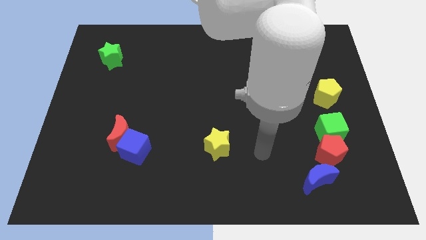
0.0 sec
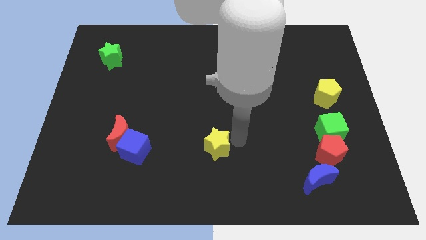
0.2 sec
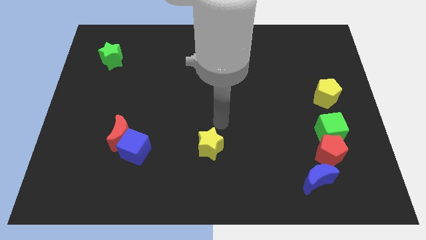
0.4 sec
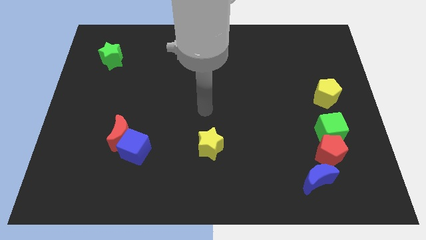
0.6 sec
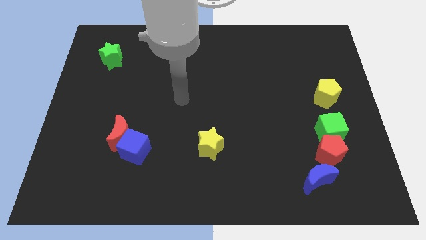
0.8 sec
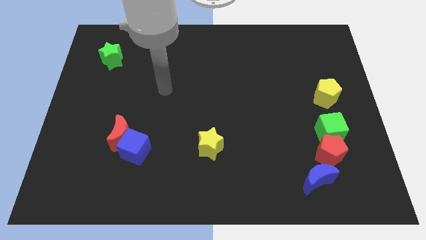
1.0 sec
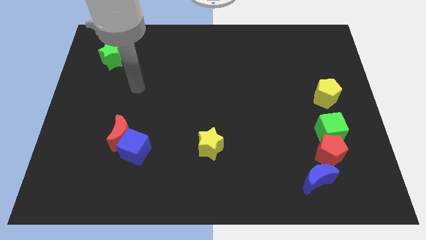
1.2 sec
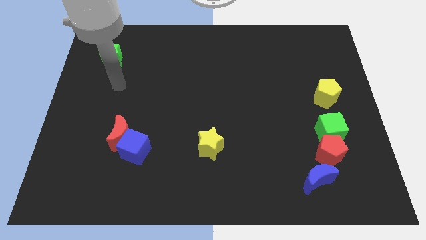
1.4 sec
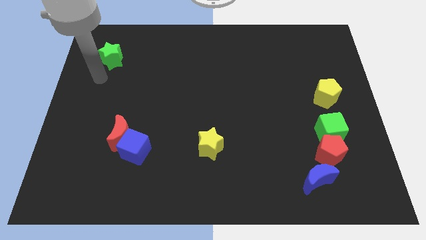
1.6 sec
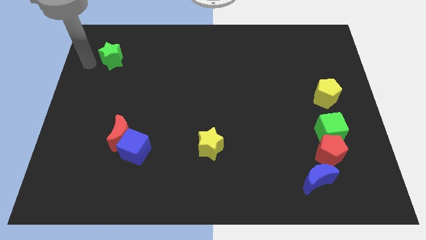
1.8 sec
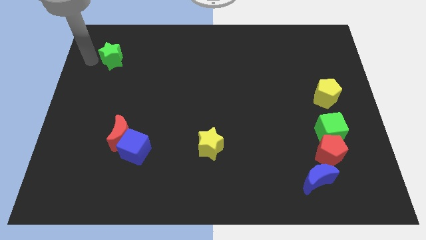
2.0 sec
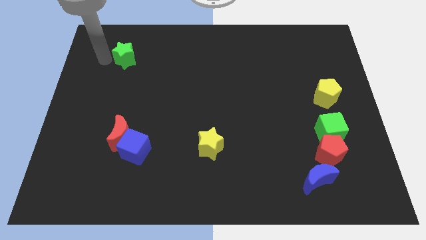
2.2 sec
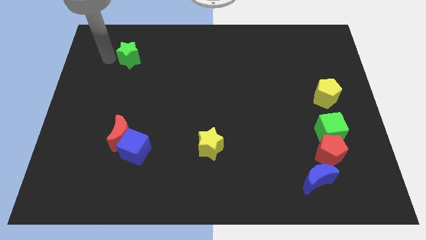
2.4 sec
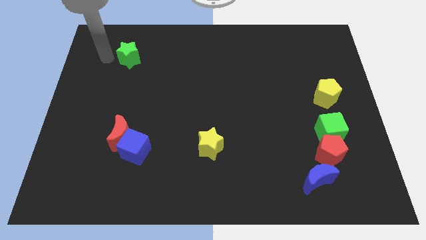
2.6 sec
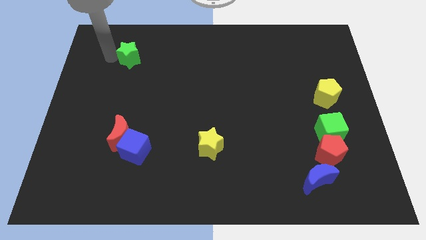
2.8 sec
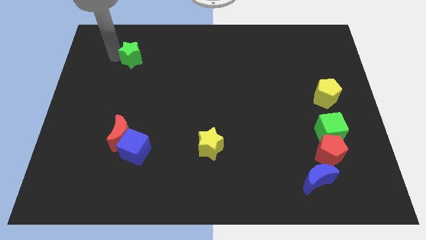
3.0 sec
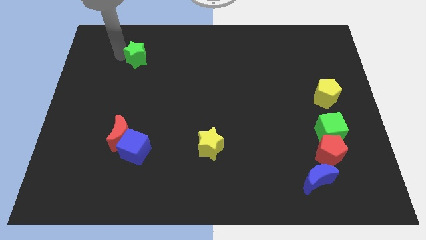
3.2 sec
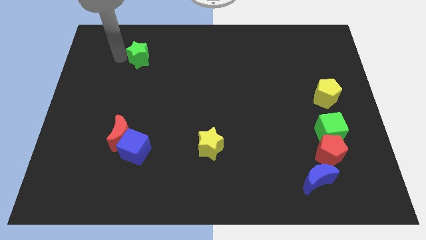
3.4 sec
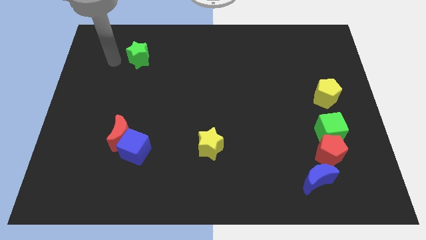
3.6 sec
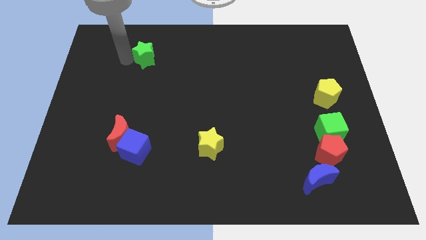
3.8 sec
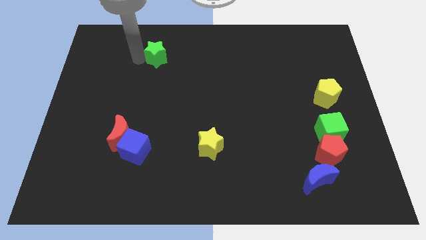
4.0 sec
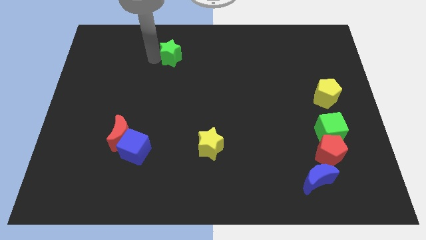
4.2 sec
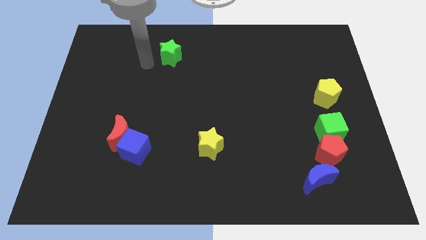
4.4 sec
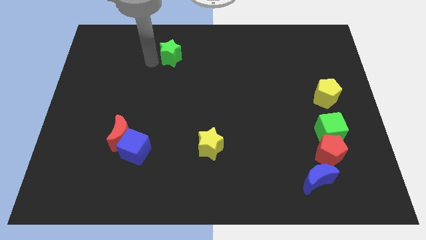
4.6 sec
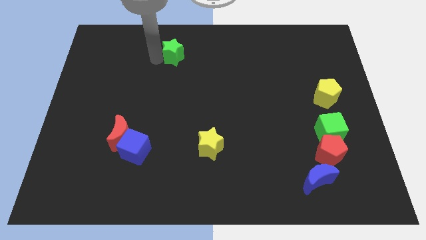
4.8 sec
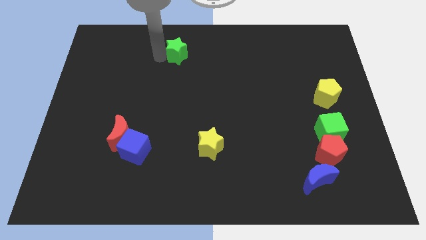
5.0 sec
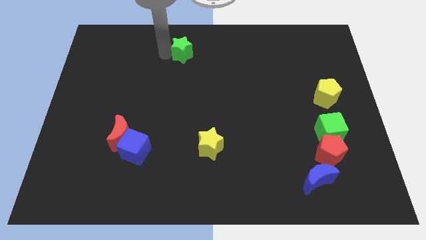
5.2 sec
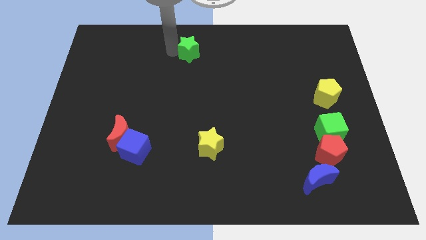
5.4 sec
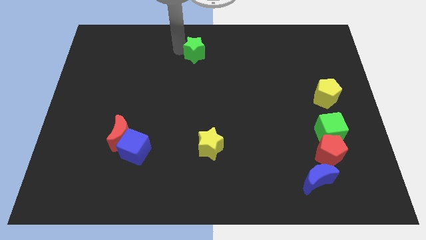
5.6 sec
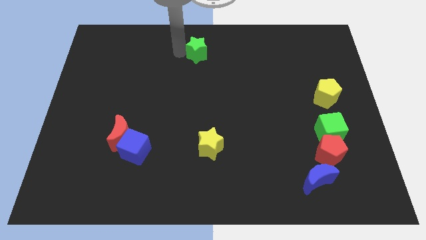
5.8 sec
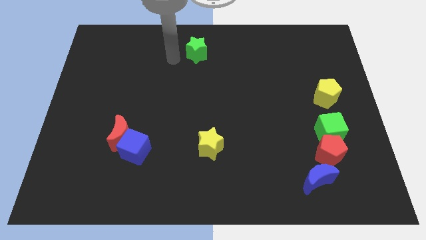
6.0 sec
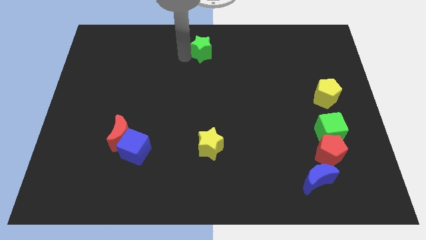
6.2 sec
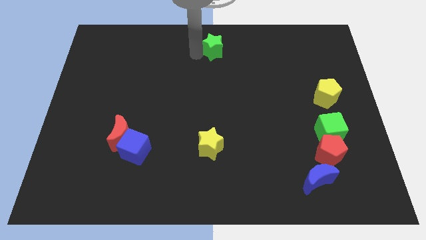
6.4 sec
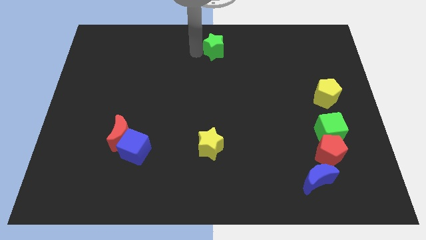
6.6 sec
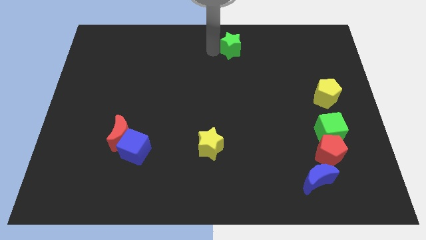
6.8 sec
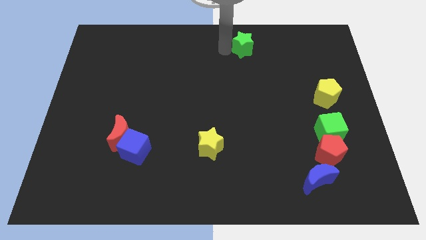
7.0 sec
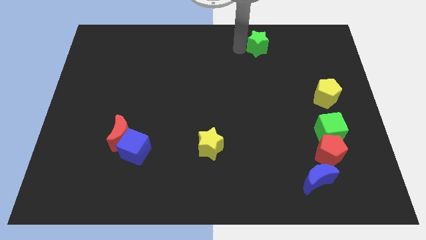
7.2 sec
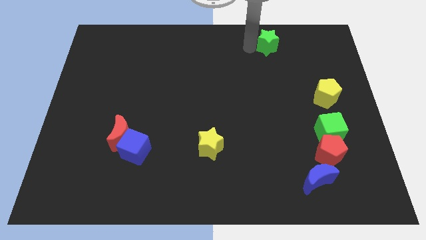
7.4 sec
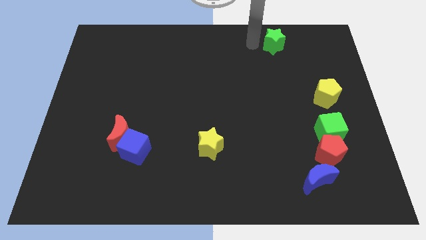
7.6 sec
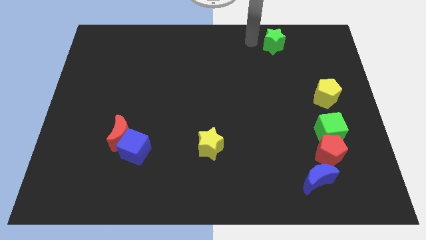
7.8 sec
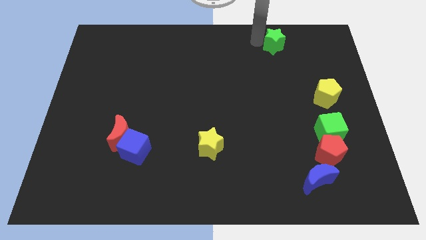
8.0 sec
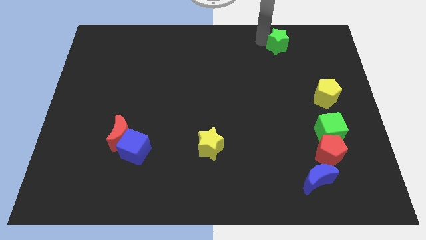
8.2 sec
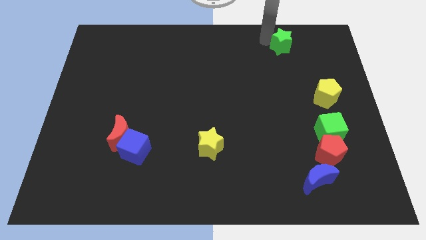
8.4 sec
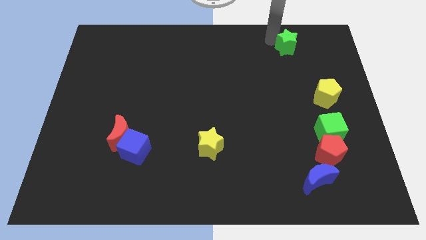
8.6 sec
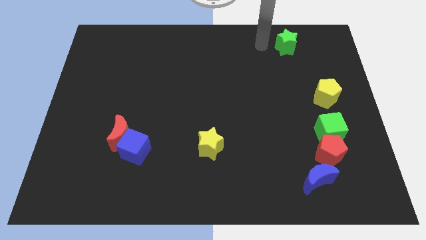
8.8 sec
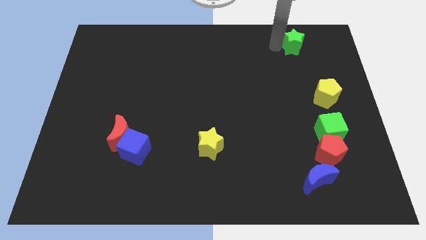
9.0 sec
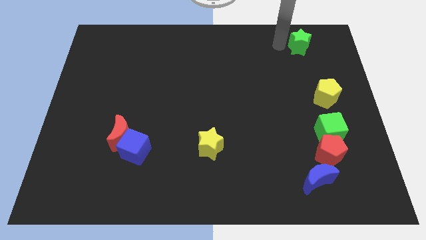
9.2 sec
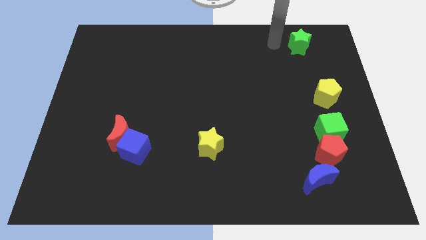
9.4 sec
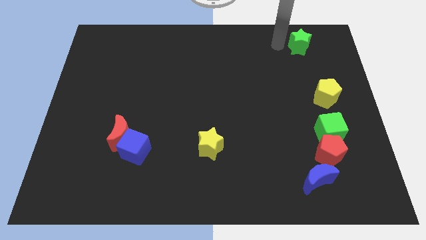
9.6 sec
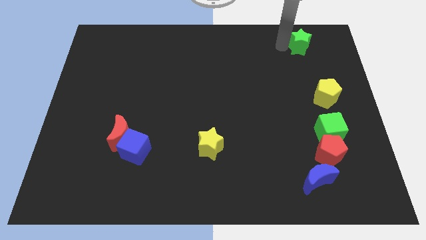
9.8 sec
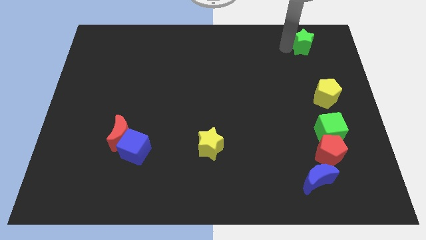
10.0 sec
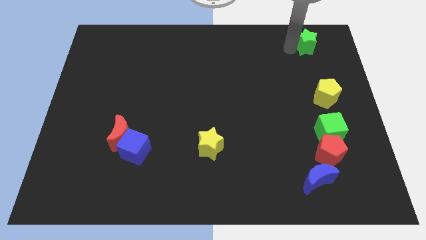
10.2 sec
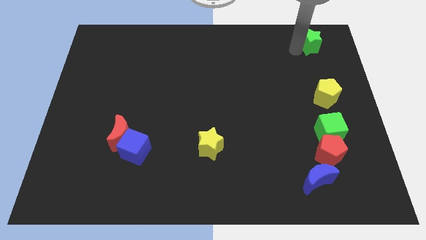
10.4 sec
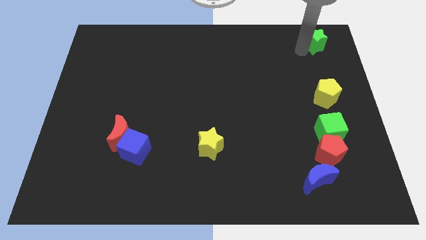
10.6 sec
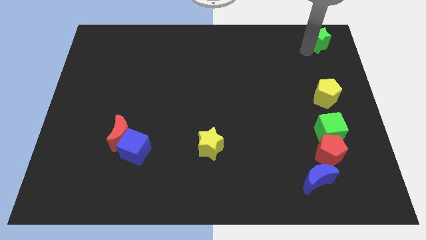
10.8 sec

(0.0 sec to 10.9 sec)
push the green star to the top right
